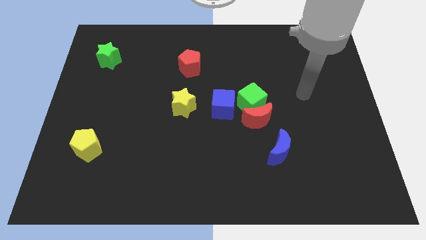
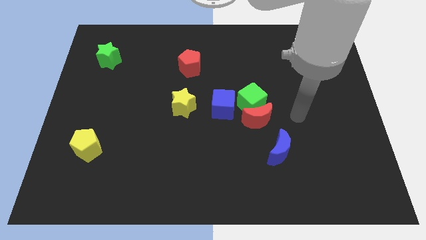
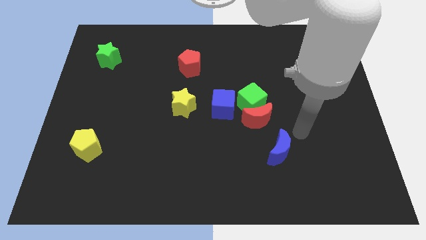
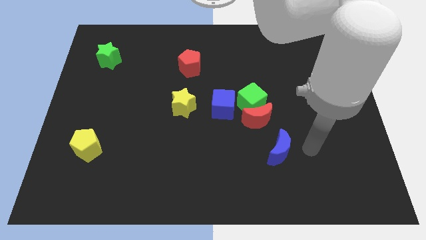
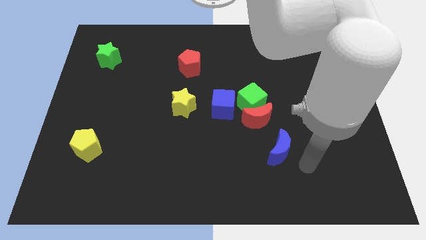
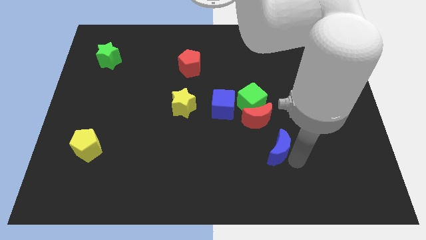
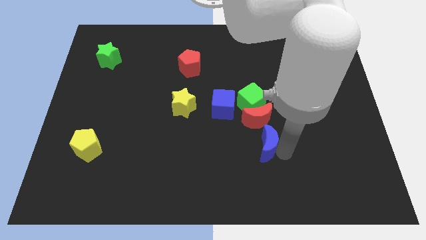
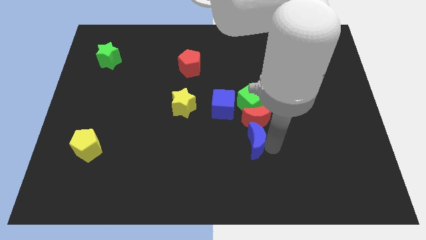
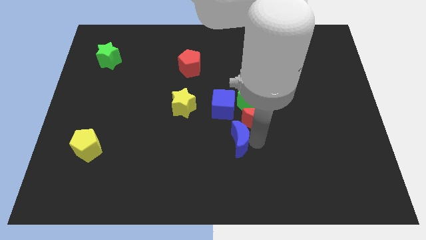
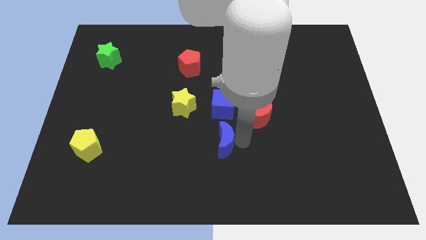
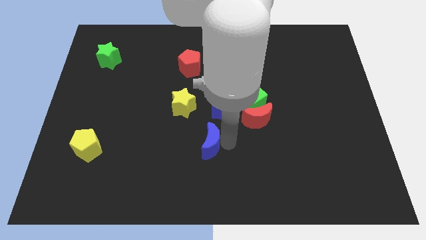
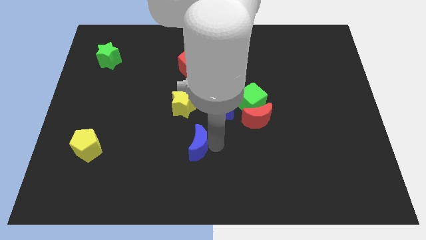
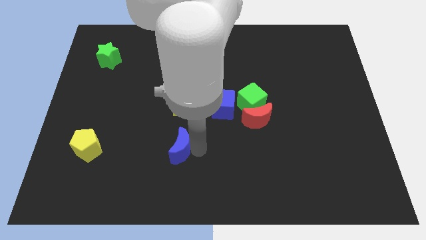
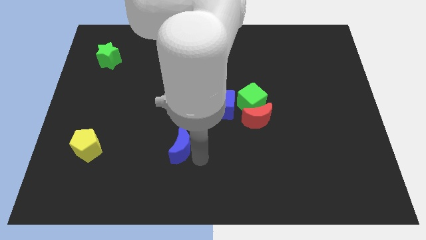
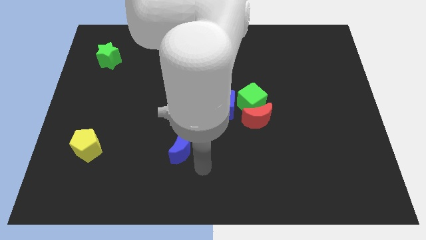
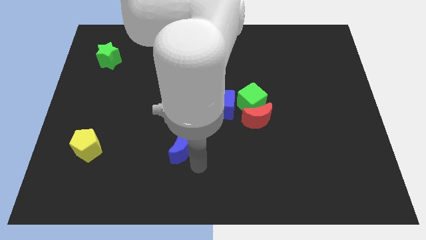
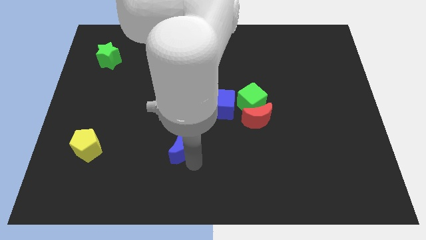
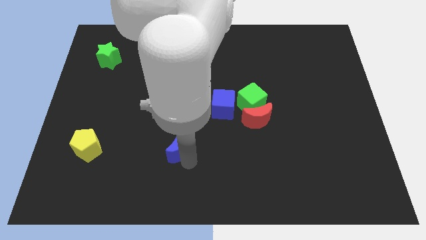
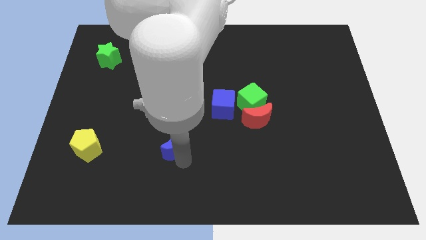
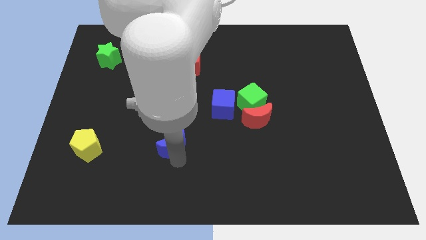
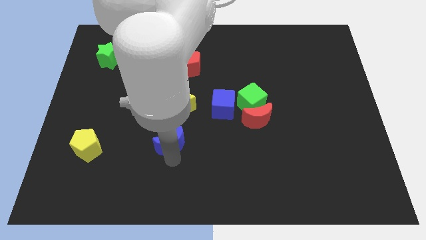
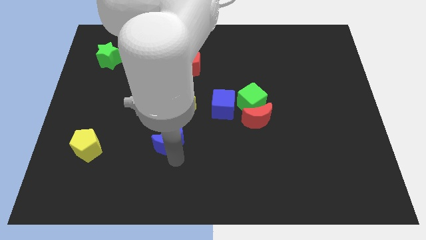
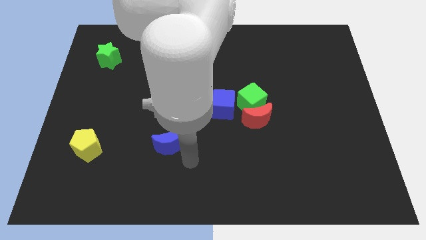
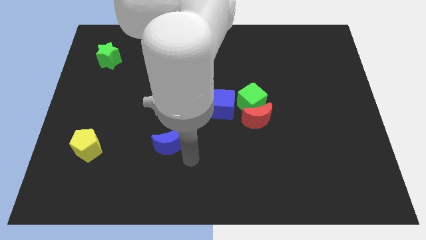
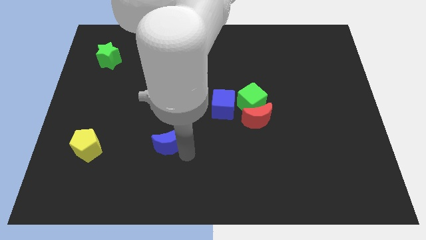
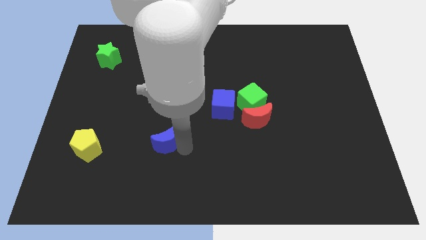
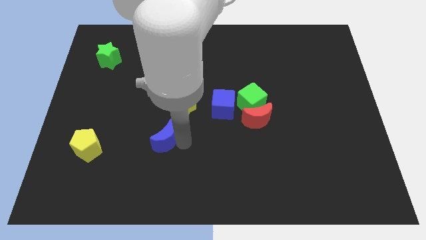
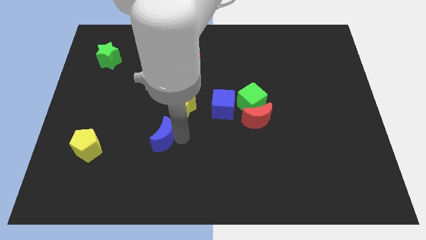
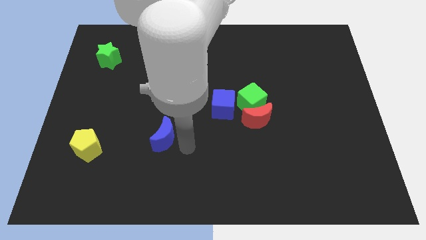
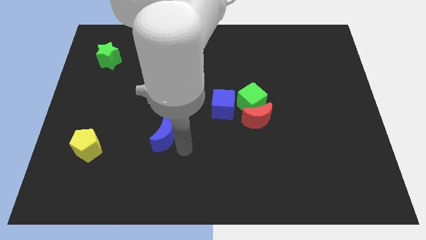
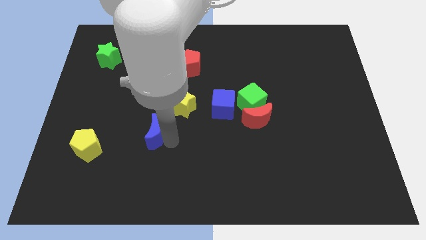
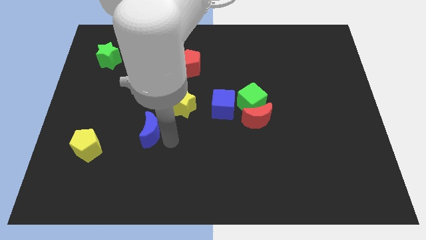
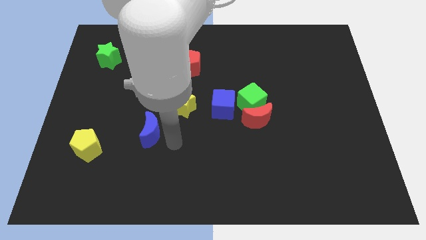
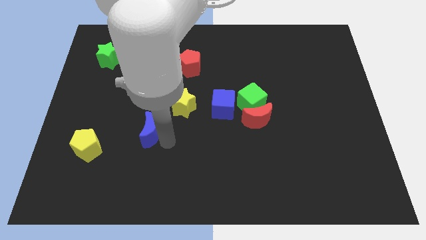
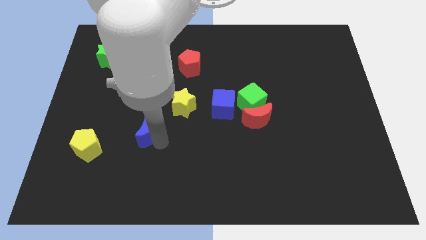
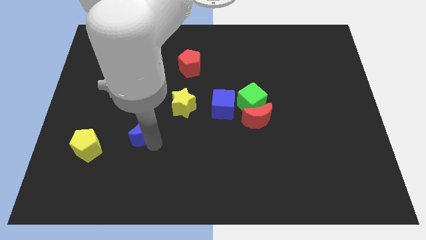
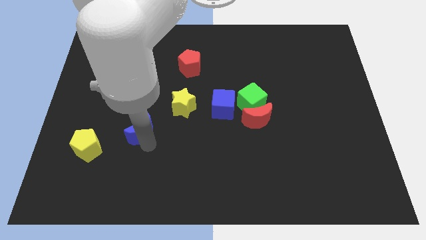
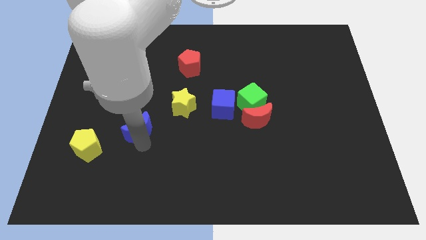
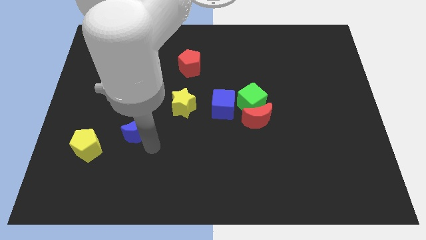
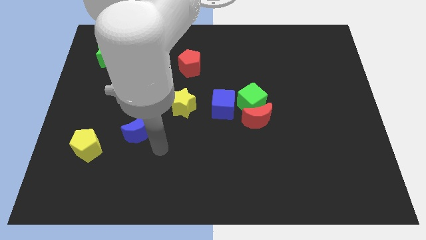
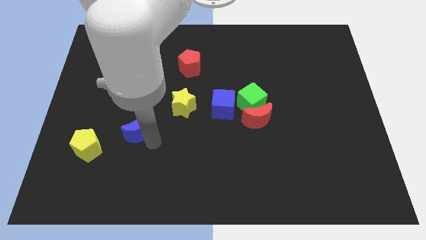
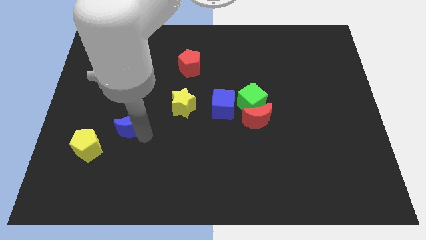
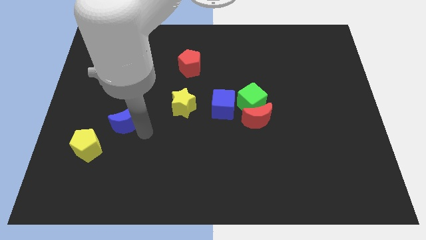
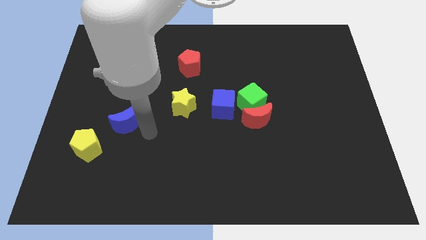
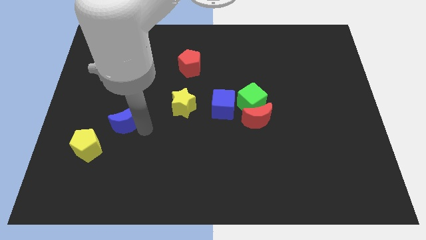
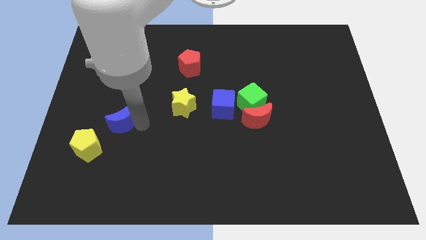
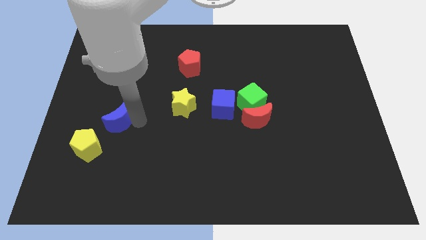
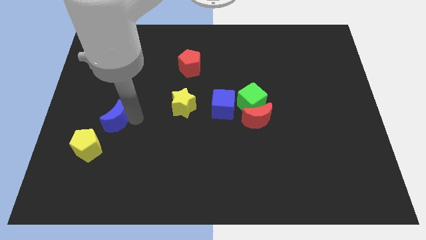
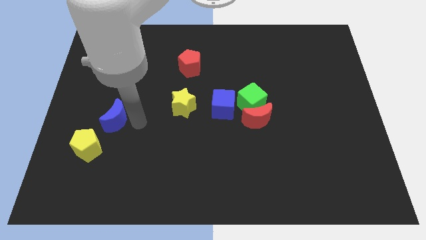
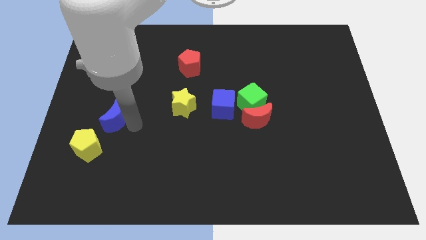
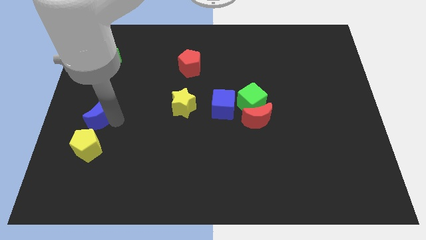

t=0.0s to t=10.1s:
push the blue moon to the left side
